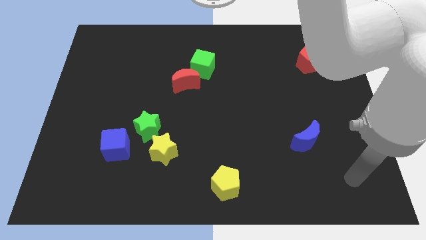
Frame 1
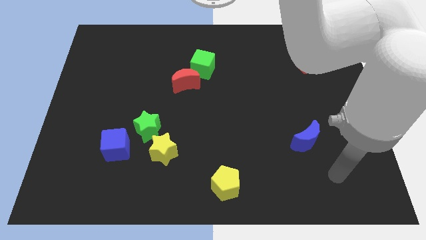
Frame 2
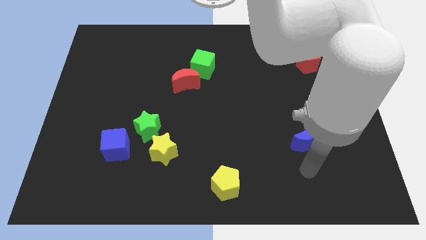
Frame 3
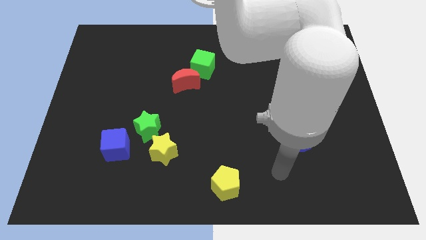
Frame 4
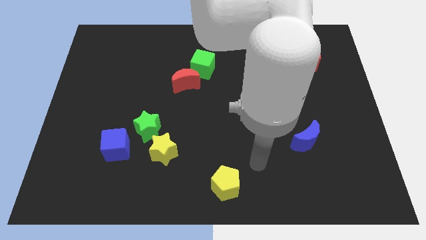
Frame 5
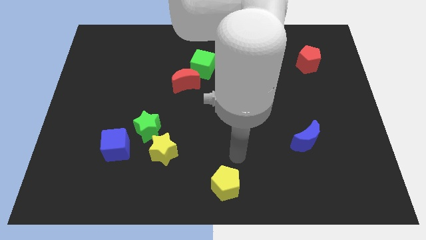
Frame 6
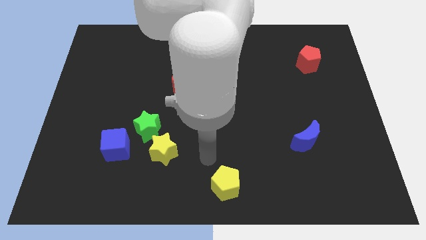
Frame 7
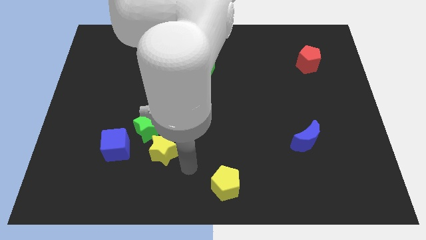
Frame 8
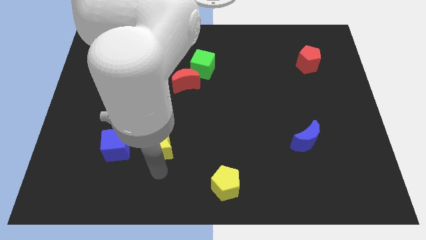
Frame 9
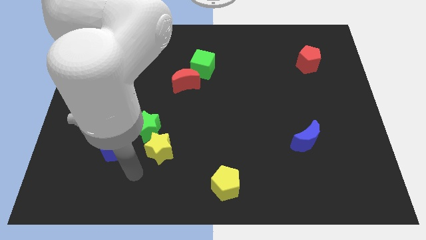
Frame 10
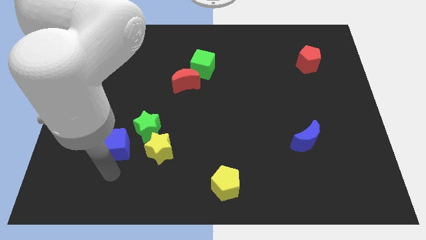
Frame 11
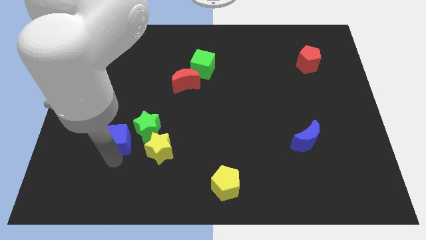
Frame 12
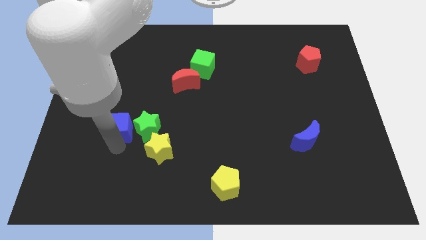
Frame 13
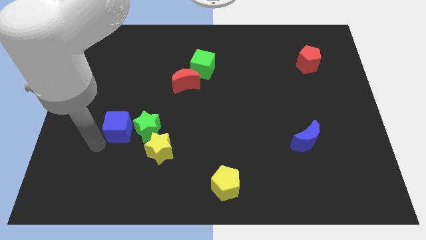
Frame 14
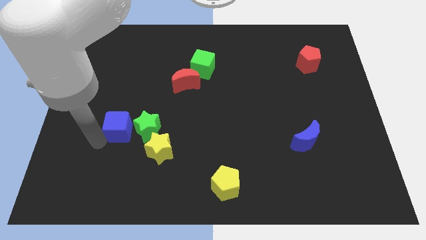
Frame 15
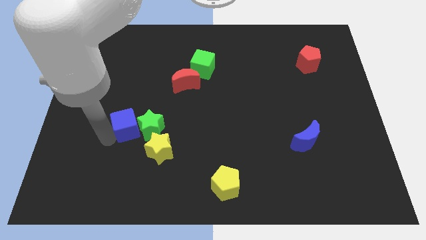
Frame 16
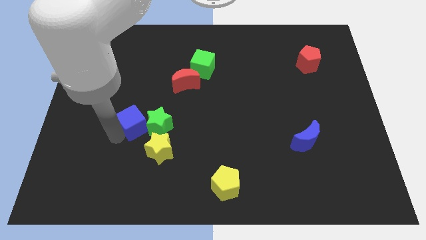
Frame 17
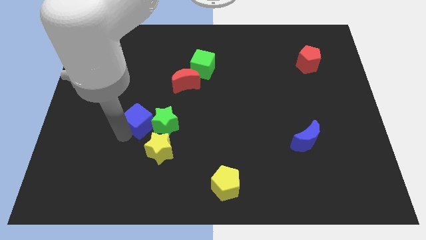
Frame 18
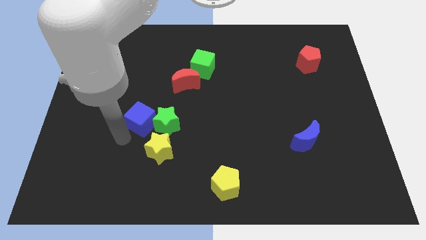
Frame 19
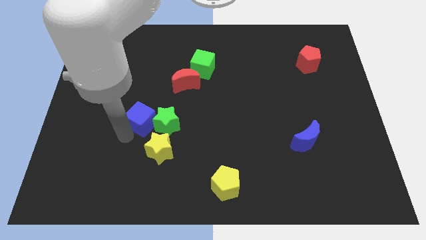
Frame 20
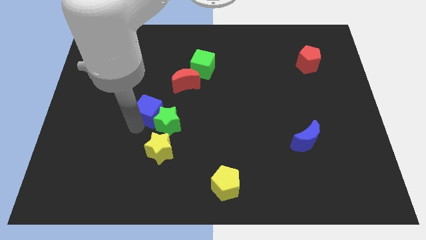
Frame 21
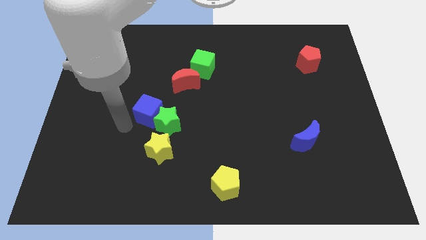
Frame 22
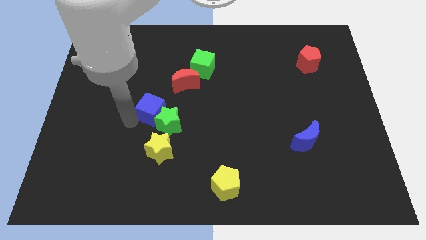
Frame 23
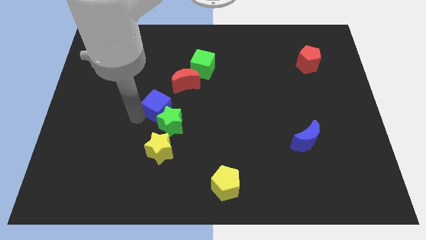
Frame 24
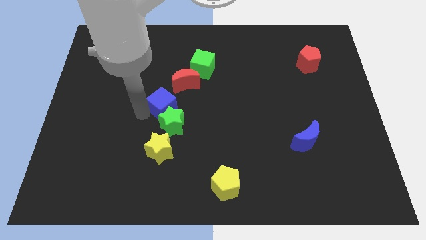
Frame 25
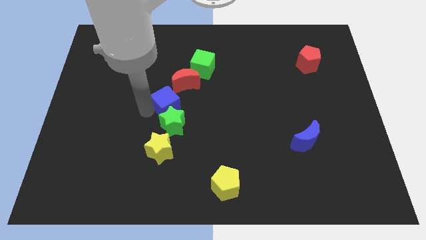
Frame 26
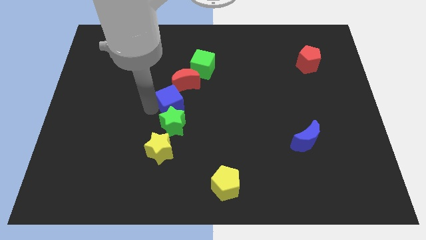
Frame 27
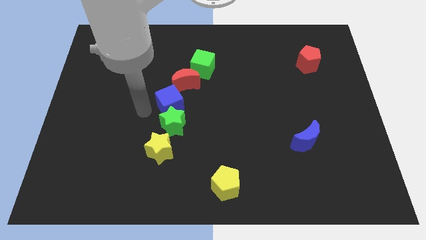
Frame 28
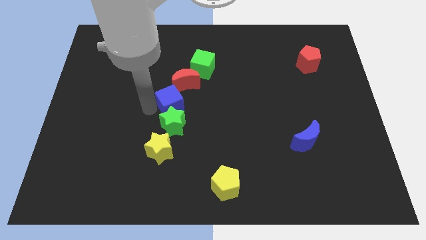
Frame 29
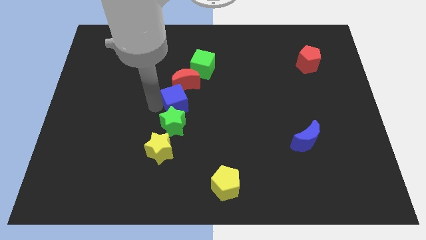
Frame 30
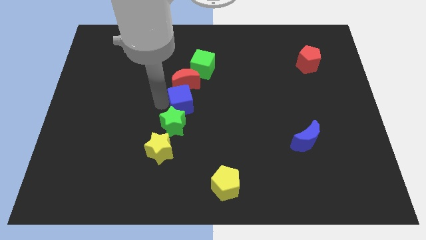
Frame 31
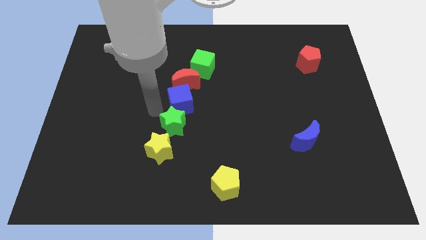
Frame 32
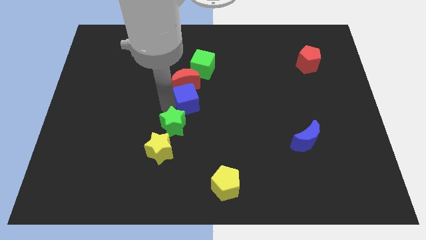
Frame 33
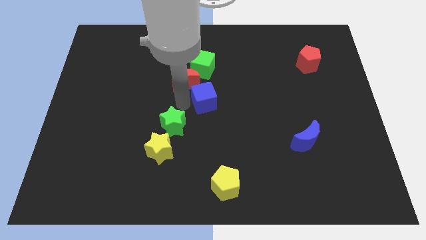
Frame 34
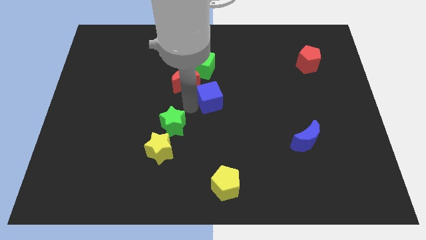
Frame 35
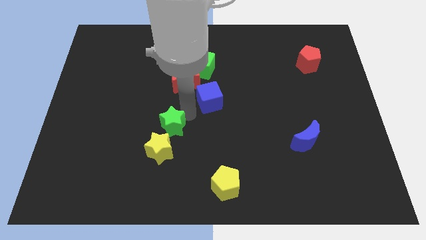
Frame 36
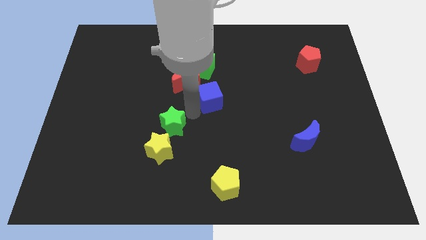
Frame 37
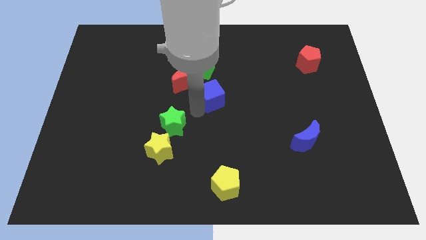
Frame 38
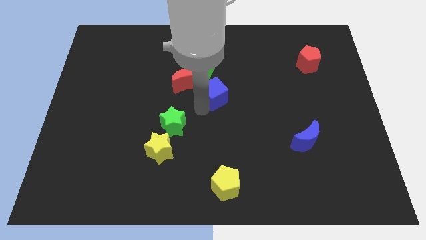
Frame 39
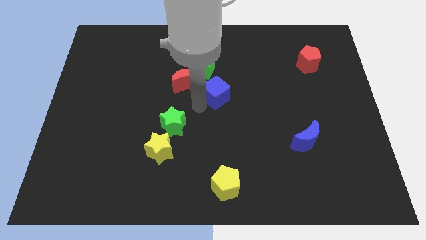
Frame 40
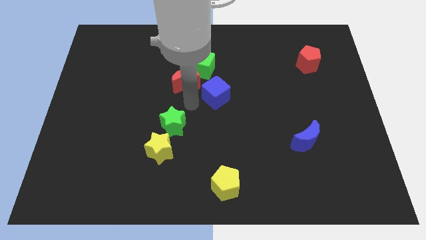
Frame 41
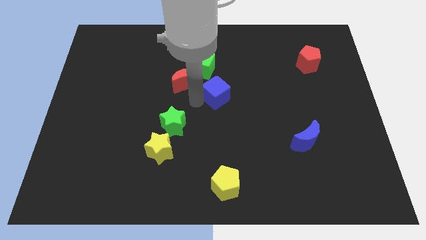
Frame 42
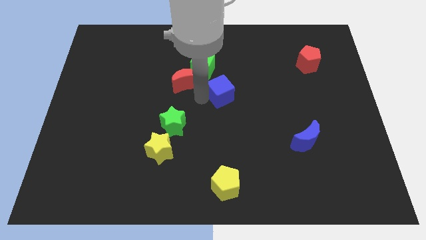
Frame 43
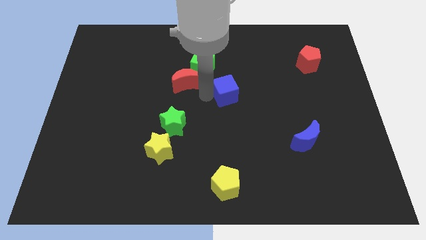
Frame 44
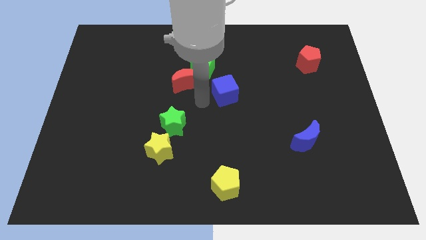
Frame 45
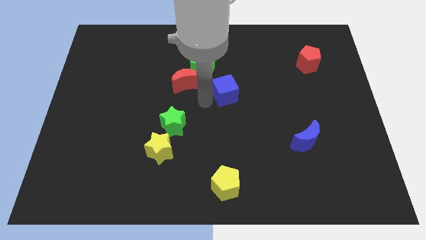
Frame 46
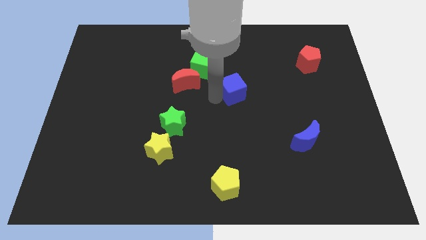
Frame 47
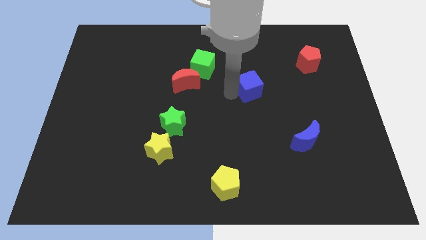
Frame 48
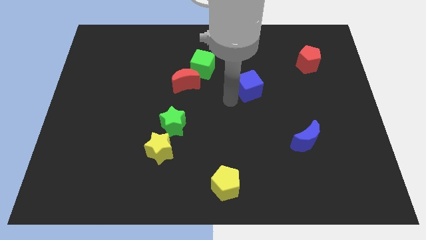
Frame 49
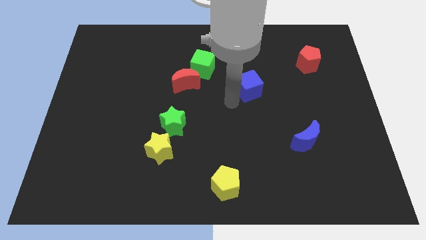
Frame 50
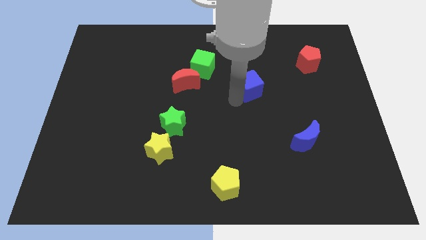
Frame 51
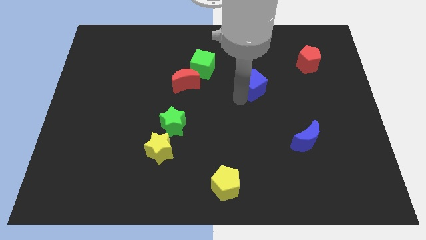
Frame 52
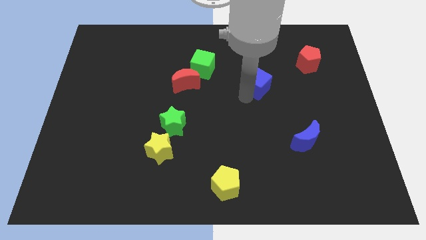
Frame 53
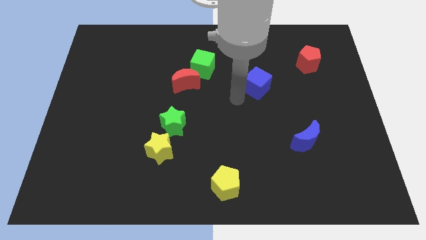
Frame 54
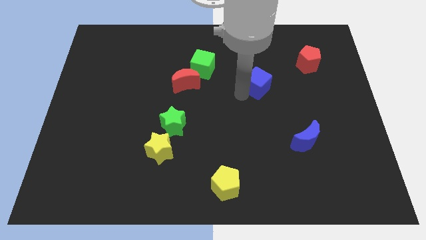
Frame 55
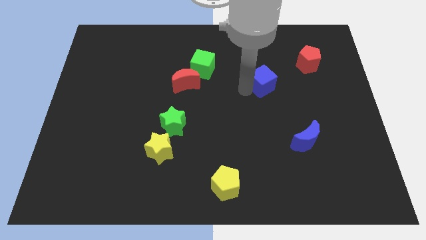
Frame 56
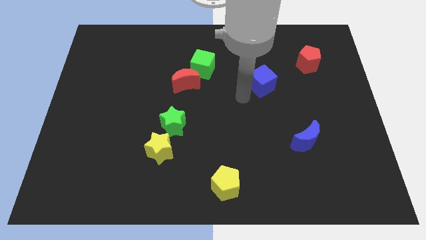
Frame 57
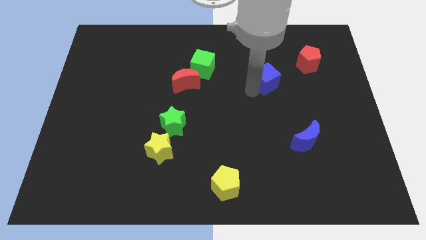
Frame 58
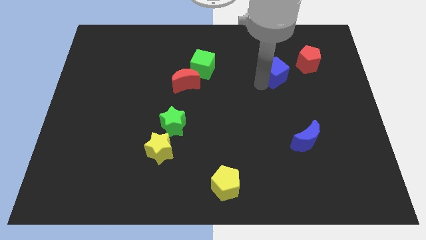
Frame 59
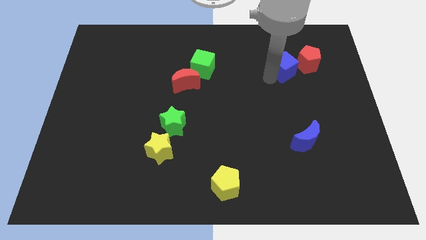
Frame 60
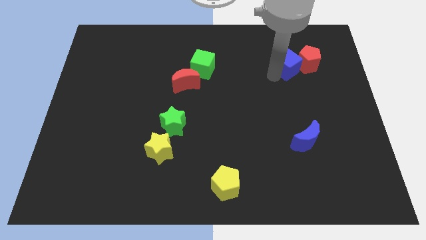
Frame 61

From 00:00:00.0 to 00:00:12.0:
put the blue cube towards the red pentagon
